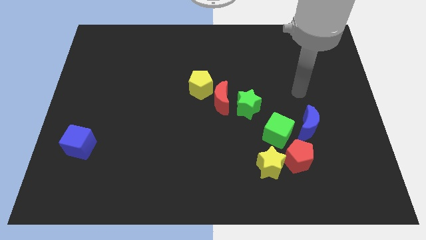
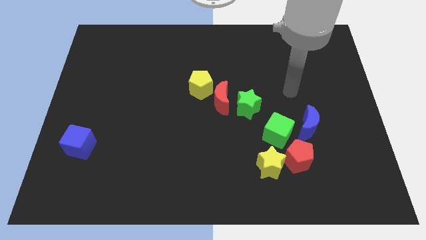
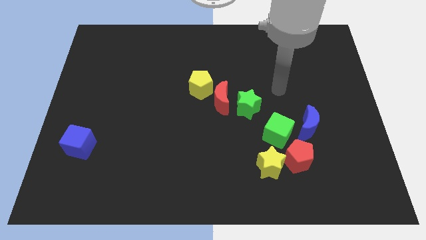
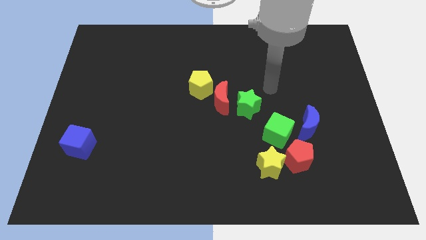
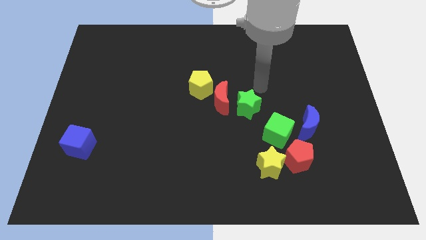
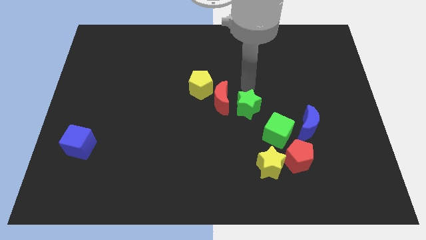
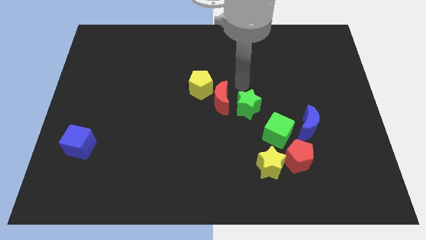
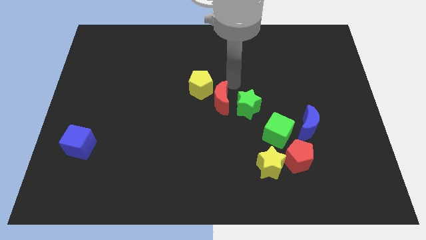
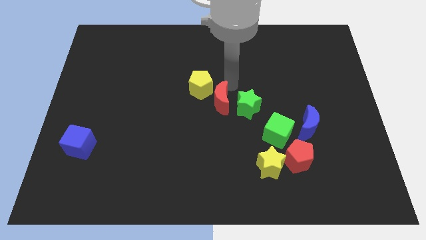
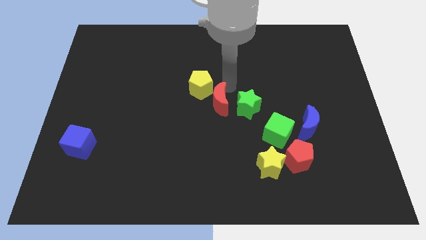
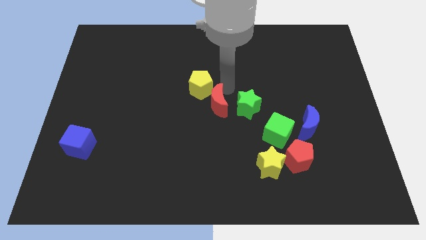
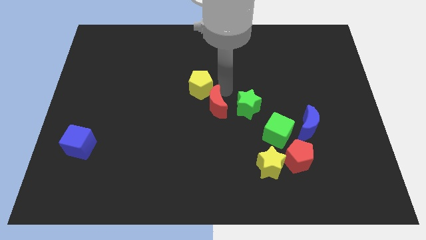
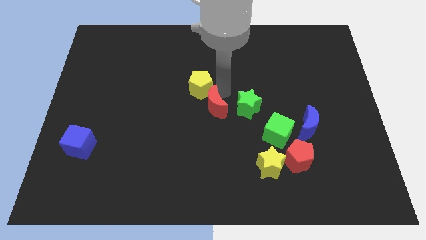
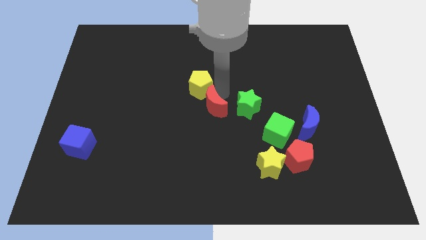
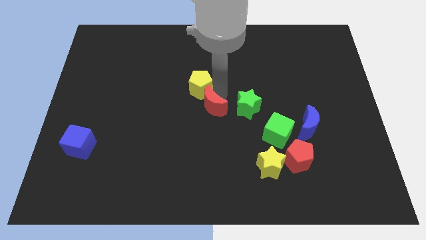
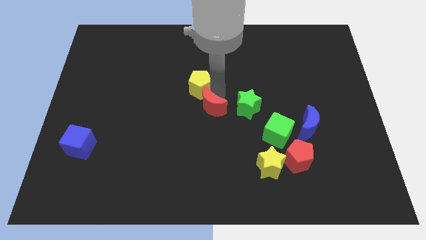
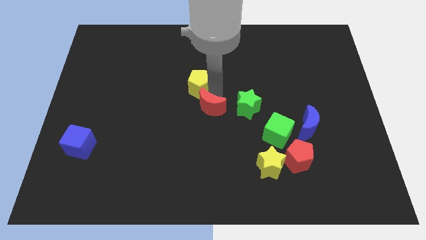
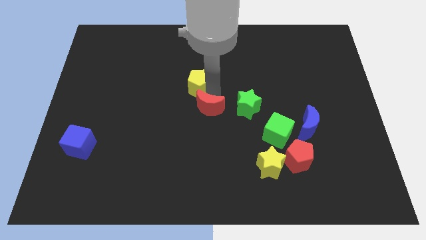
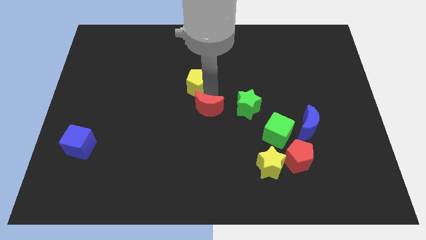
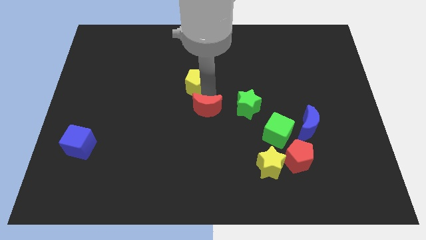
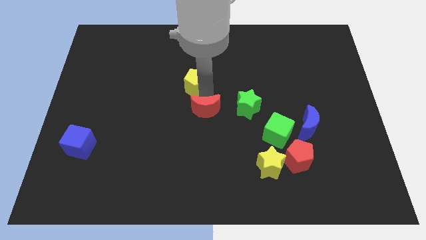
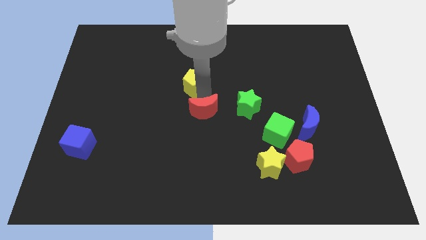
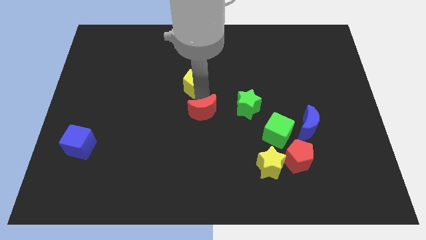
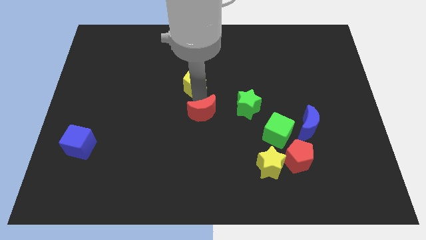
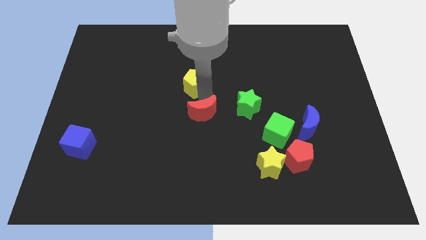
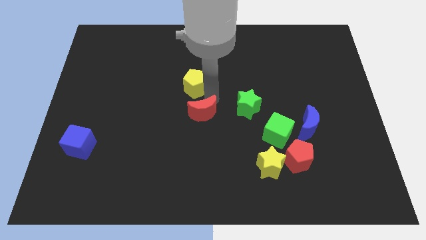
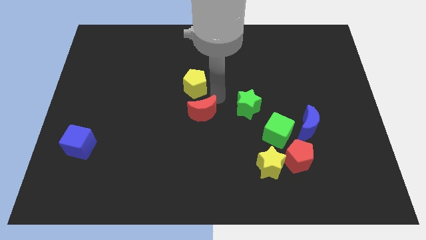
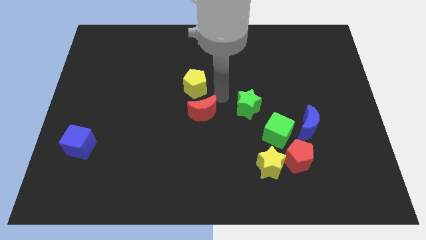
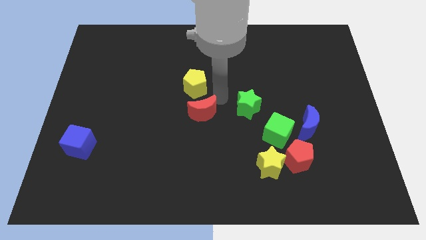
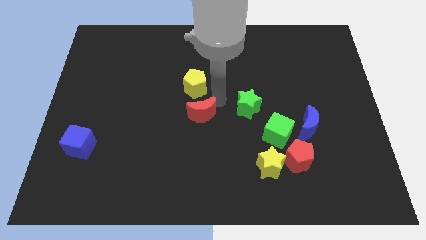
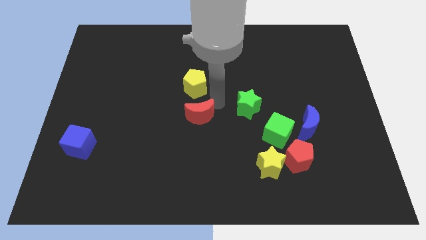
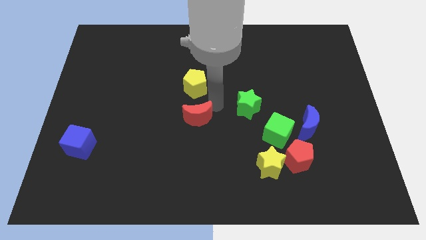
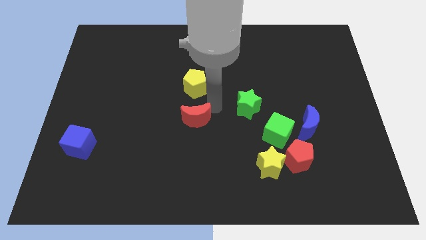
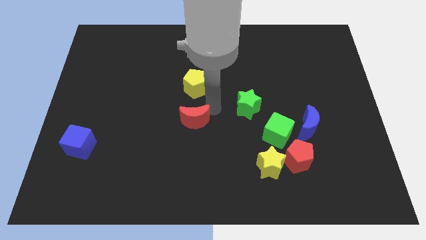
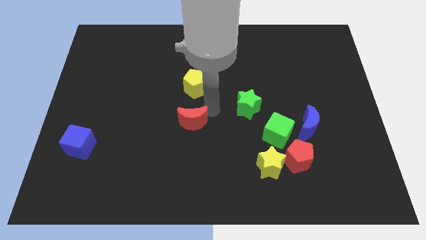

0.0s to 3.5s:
move the red moon away from the green star and yellow pentagon

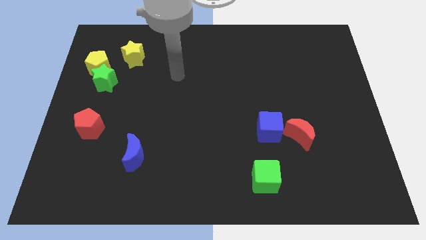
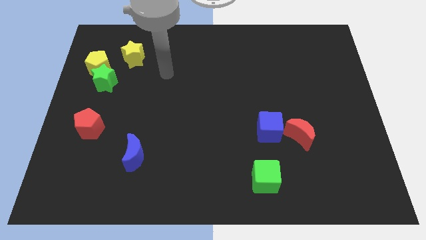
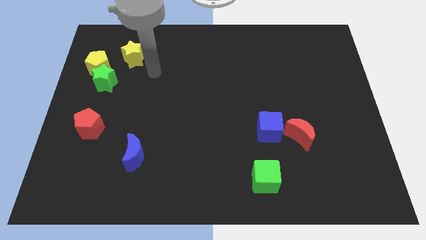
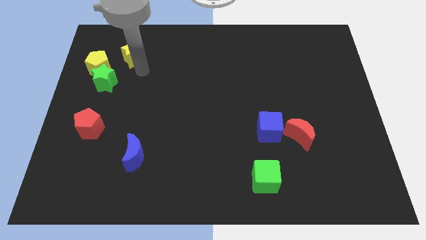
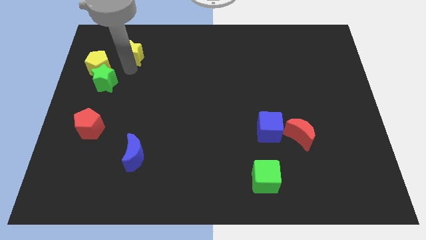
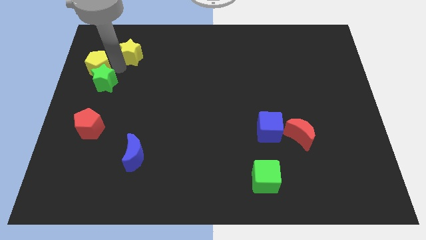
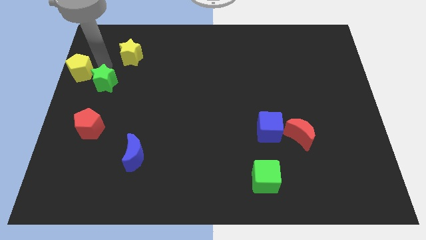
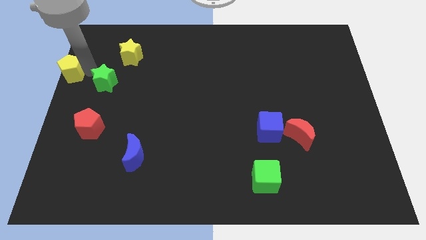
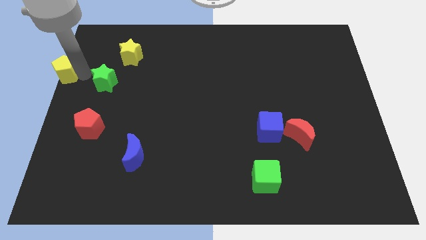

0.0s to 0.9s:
pull the green star apart from the yellow pentagon

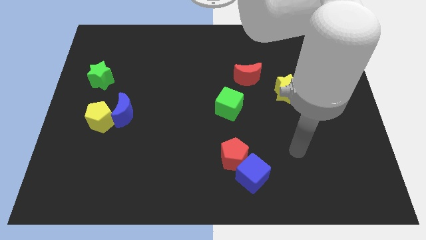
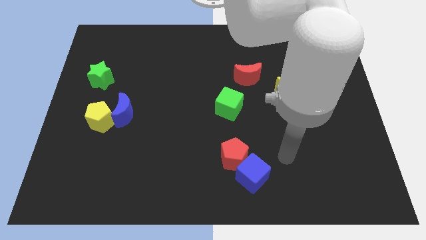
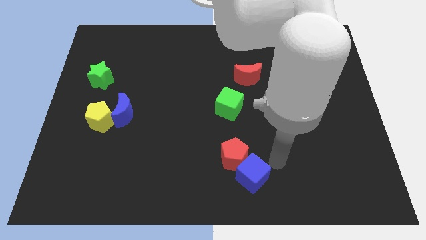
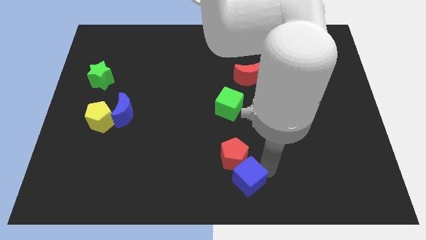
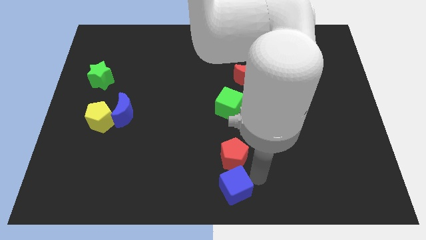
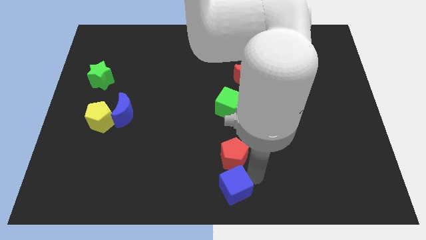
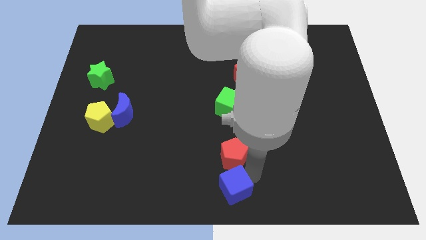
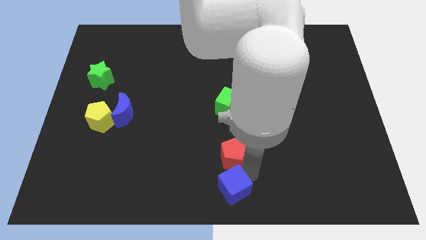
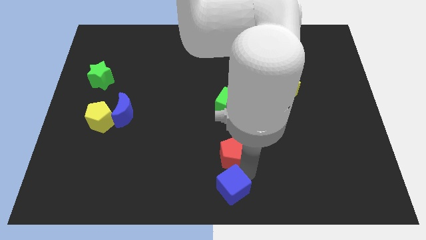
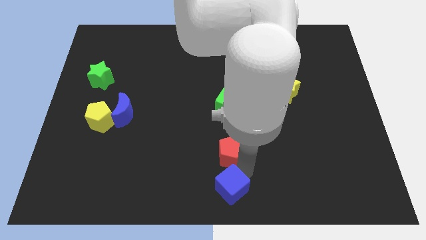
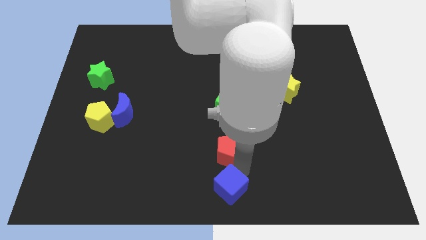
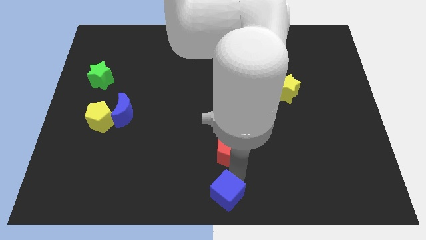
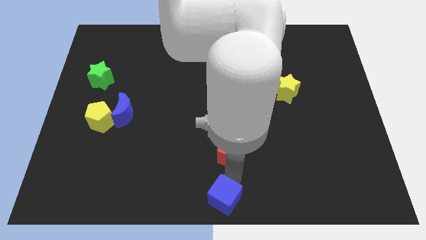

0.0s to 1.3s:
separate the red pentagon from the blue cube

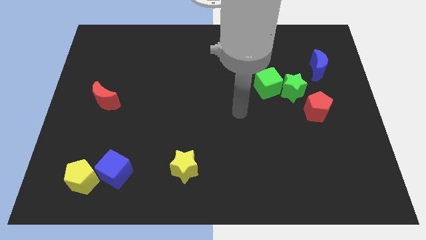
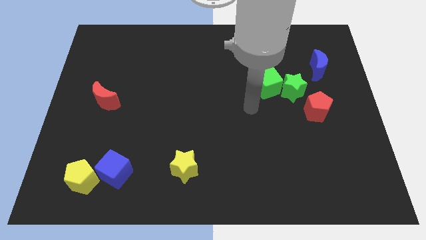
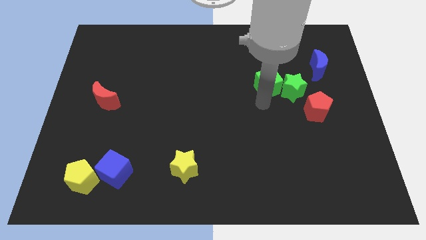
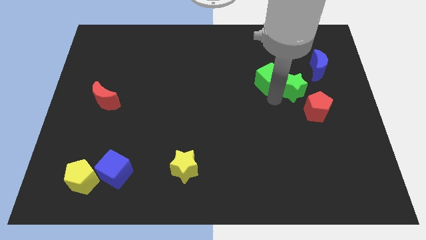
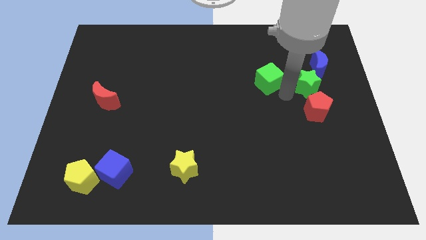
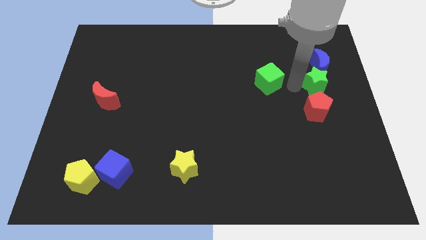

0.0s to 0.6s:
separate the green cube from the green star

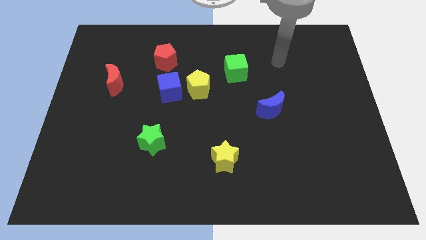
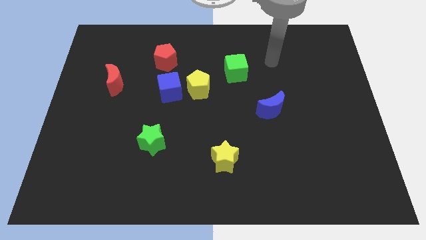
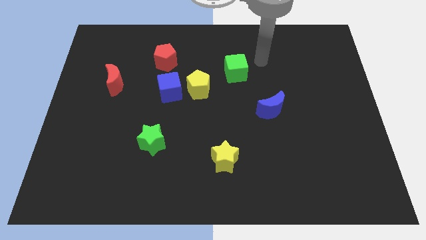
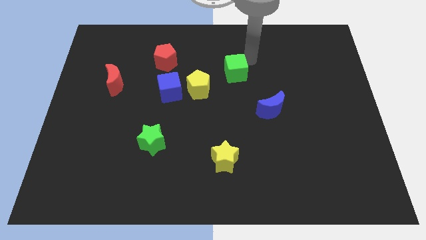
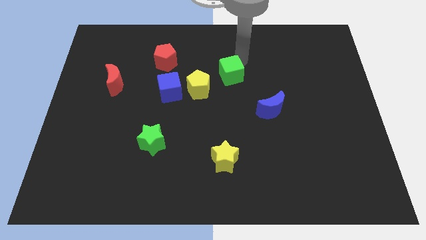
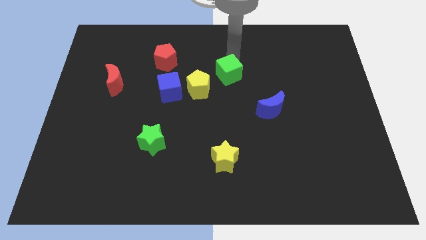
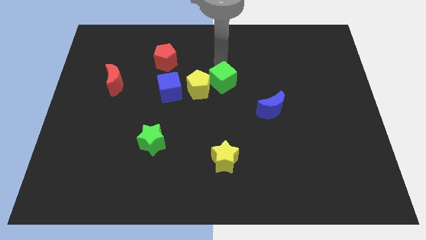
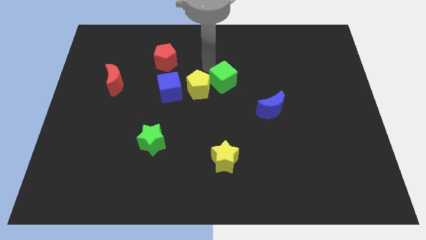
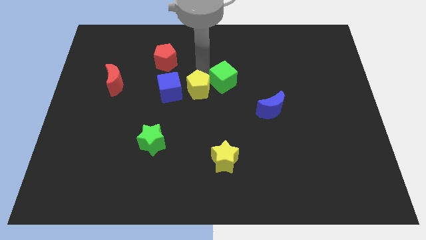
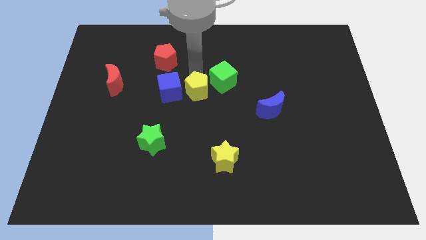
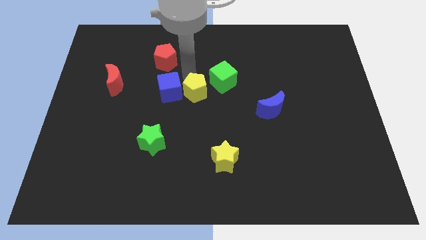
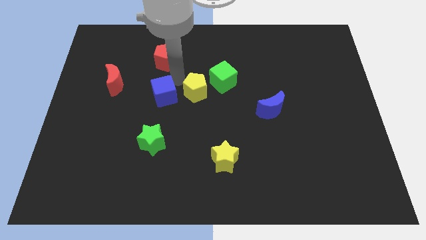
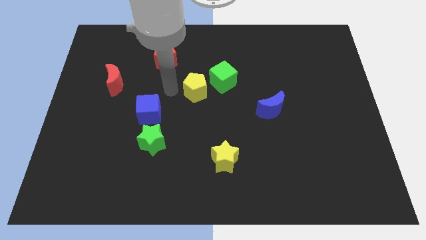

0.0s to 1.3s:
separate the yellow pentagon from the blue cube

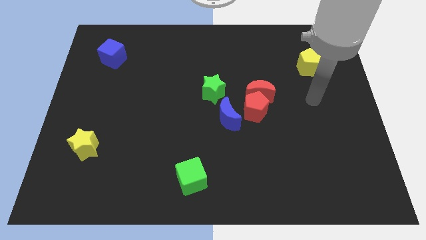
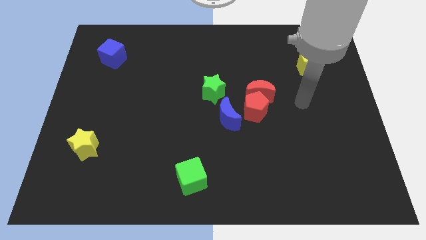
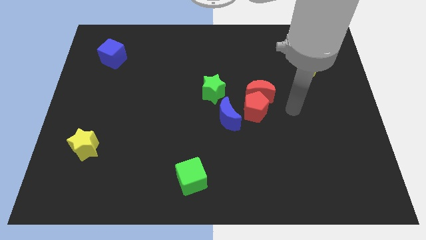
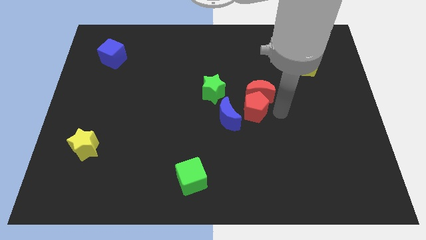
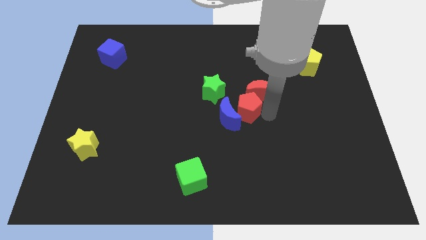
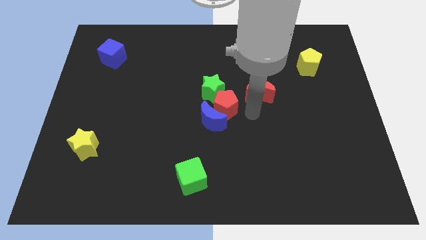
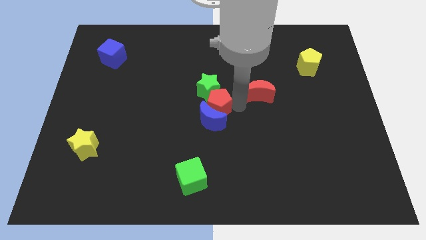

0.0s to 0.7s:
pull the red moon apart from the red pentagon

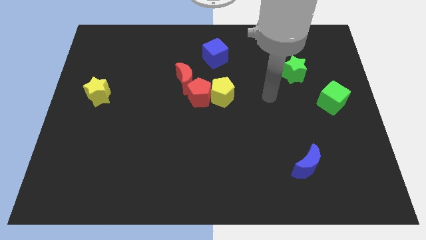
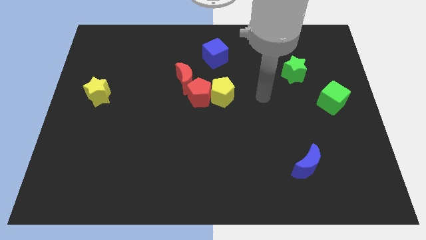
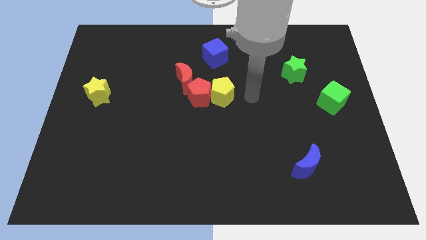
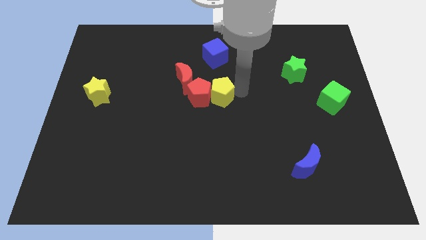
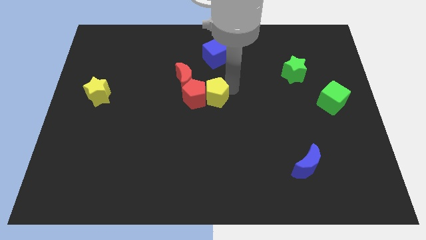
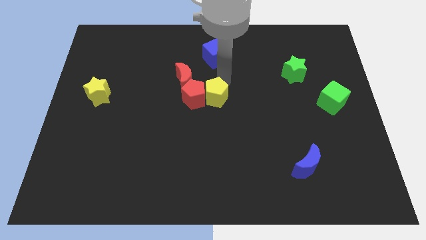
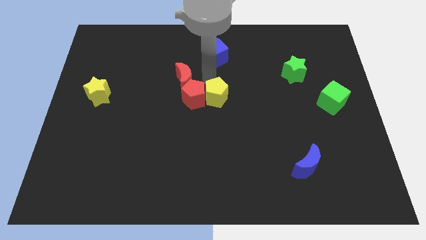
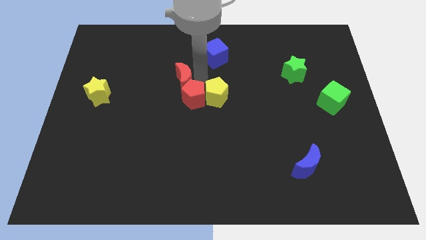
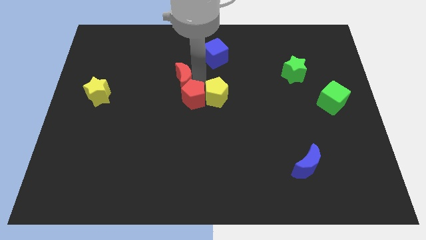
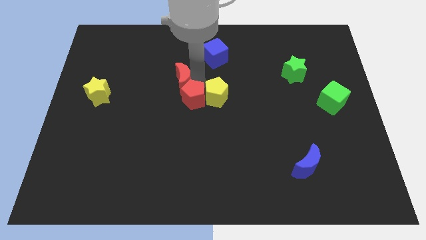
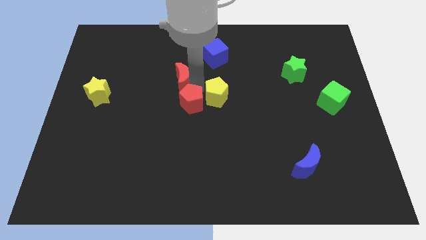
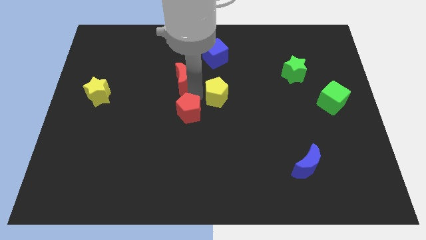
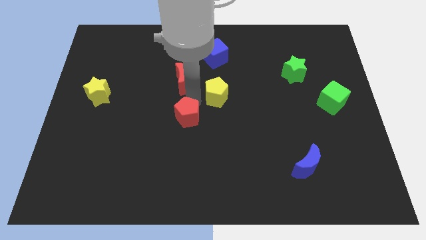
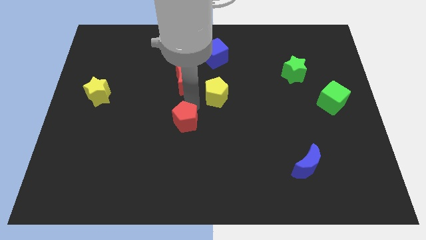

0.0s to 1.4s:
separate the red pentagon from the yellow pentagon and red moon
